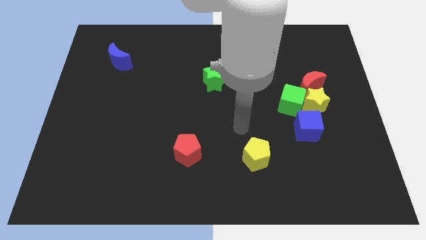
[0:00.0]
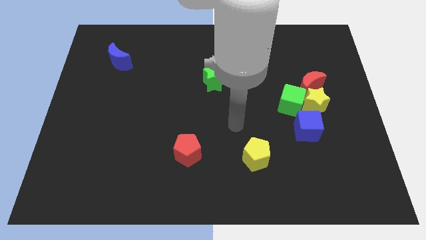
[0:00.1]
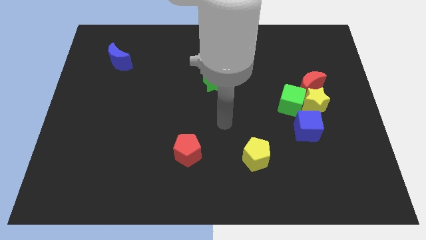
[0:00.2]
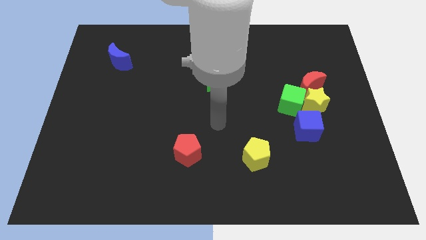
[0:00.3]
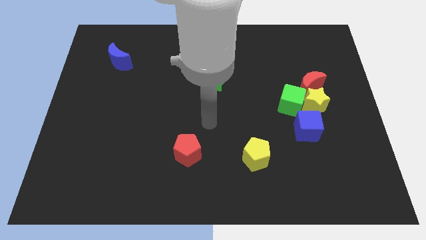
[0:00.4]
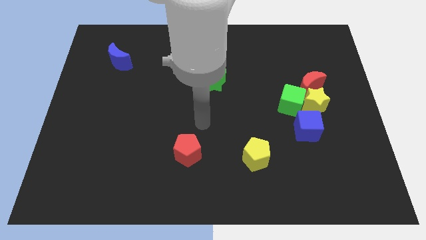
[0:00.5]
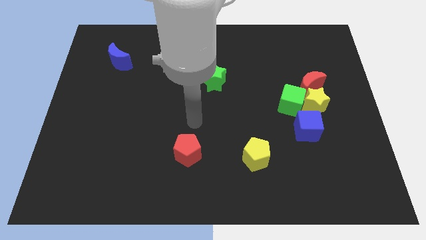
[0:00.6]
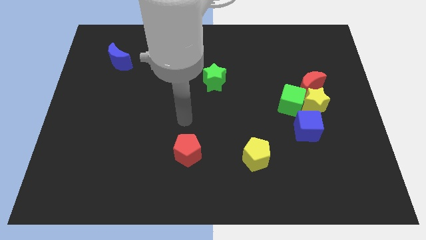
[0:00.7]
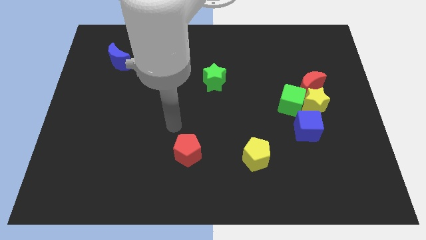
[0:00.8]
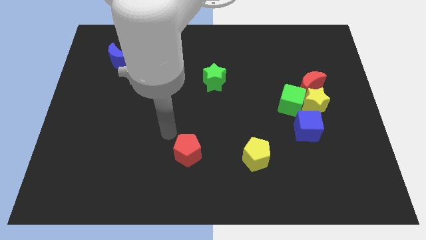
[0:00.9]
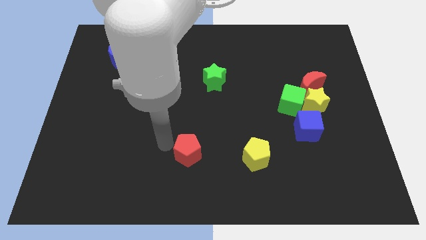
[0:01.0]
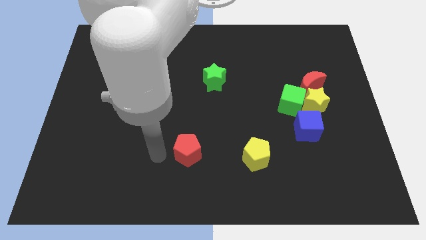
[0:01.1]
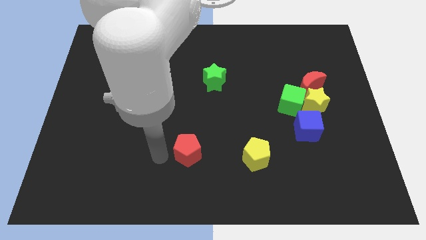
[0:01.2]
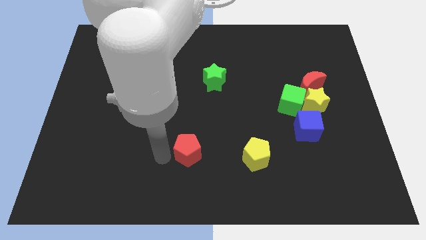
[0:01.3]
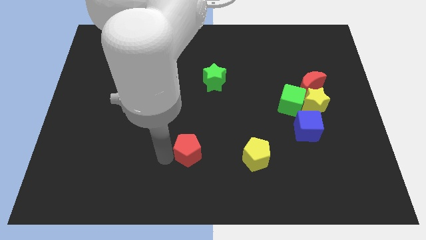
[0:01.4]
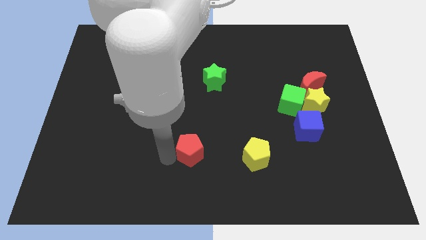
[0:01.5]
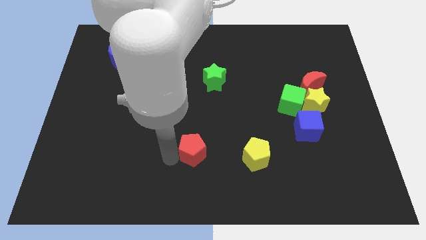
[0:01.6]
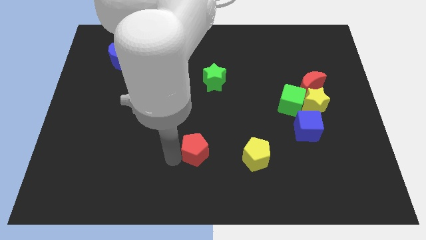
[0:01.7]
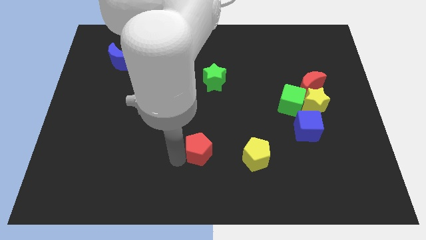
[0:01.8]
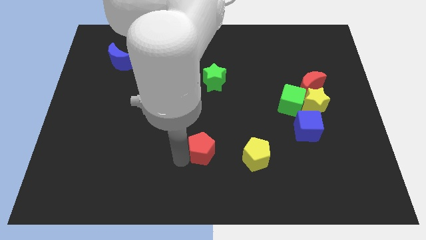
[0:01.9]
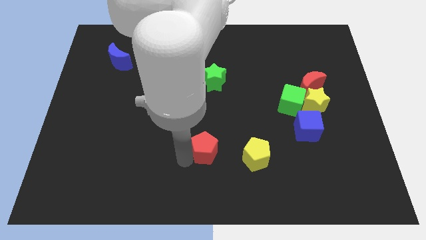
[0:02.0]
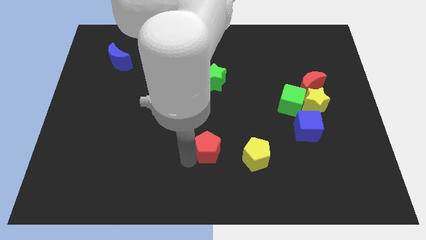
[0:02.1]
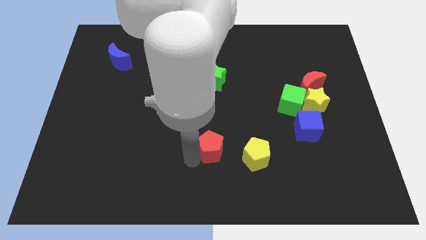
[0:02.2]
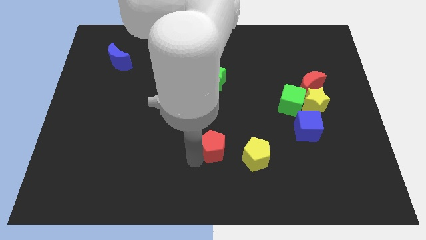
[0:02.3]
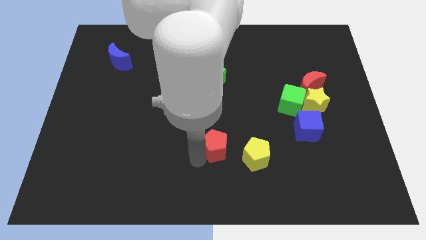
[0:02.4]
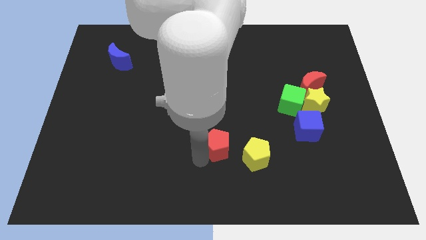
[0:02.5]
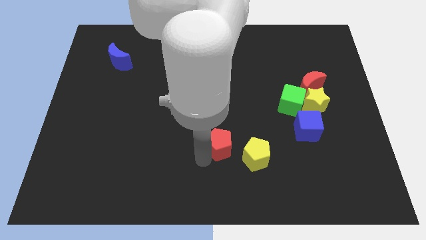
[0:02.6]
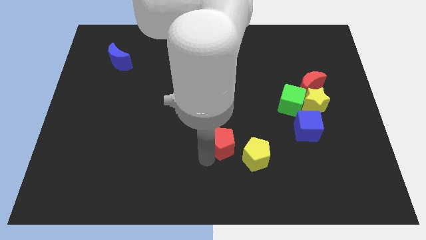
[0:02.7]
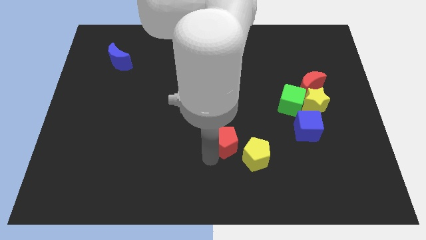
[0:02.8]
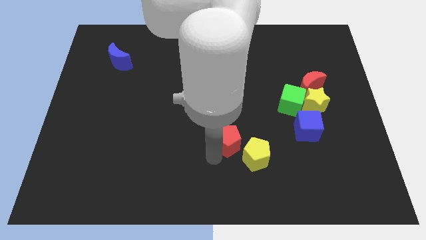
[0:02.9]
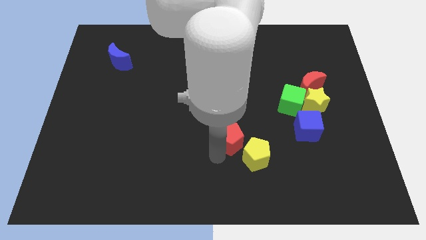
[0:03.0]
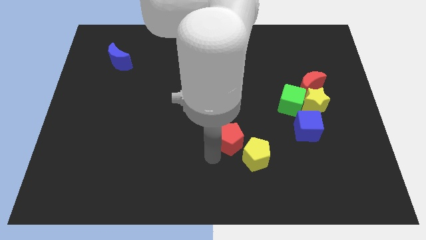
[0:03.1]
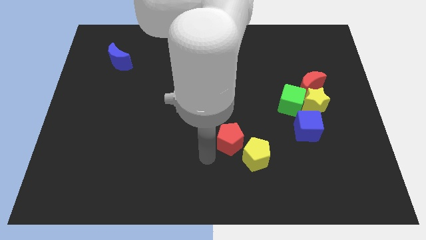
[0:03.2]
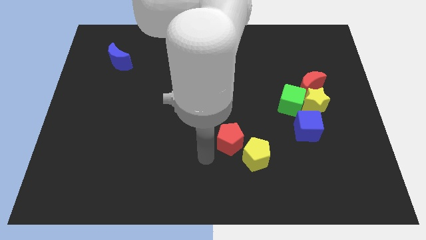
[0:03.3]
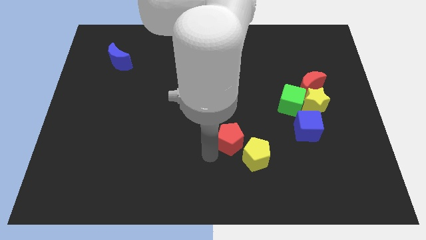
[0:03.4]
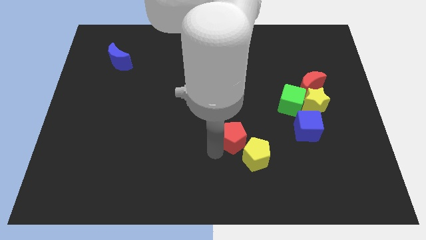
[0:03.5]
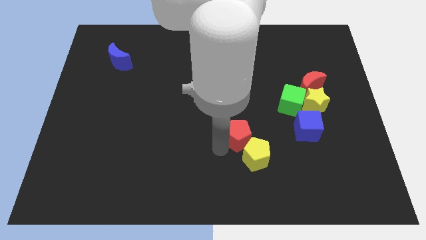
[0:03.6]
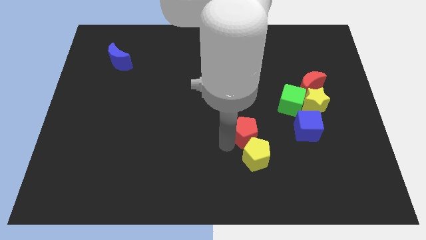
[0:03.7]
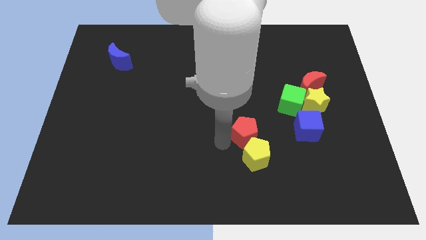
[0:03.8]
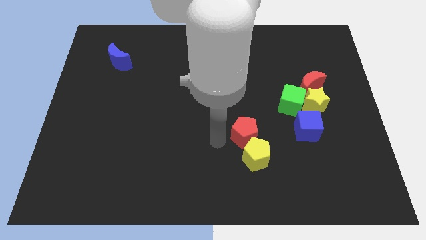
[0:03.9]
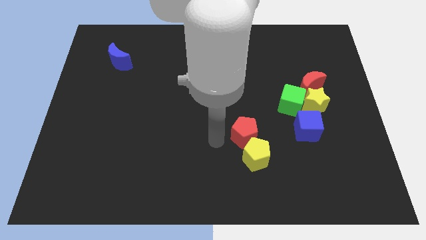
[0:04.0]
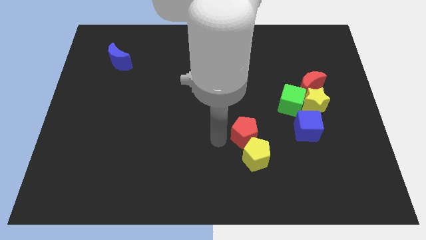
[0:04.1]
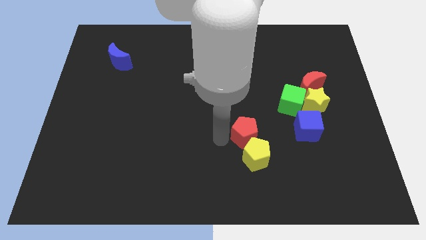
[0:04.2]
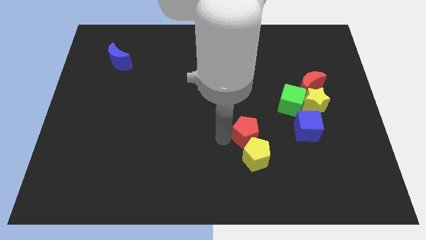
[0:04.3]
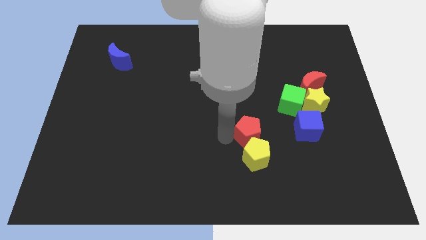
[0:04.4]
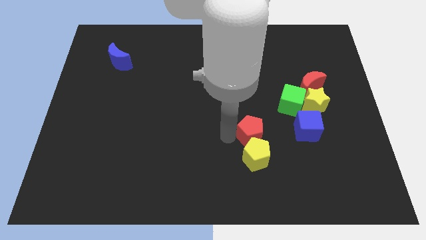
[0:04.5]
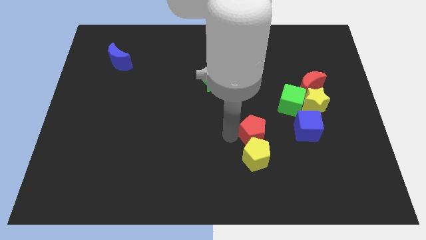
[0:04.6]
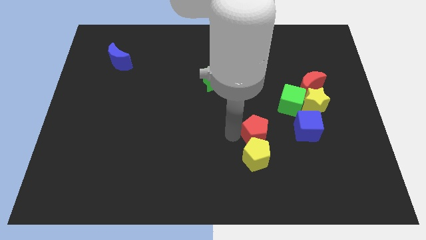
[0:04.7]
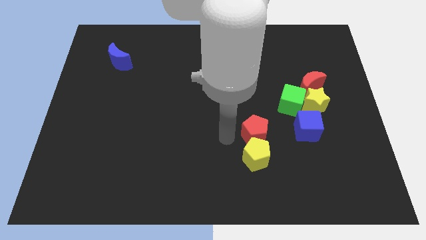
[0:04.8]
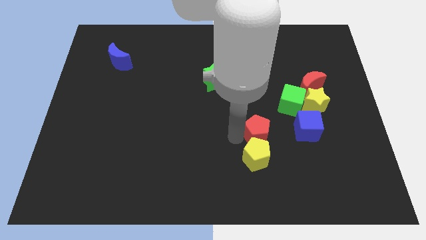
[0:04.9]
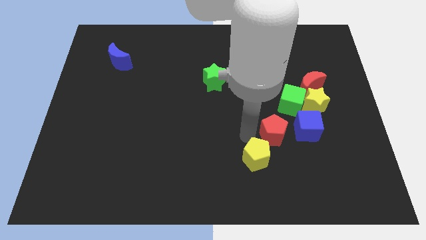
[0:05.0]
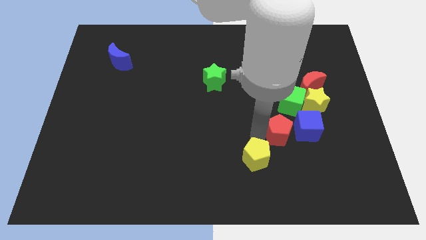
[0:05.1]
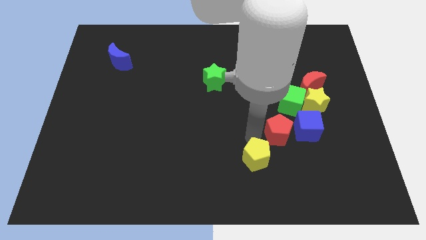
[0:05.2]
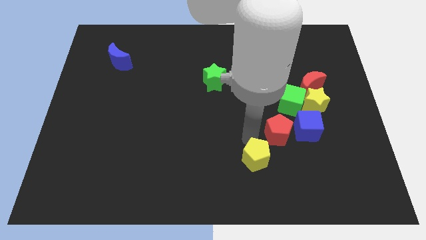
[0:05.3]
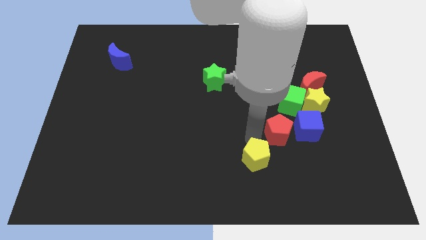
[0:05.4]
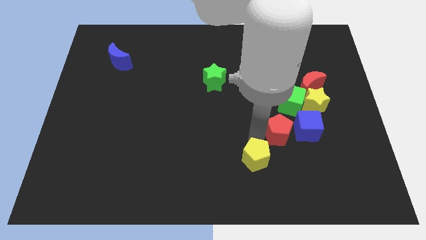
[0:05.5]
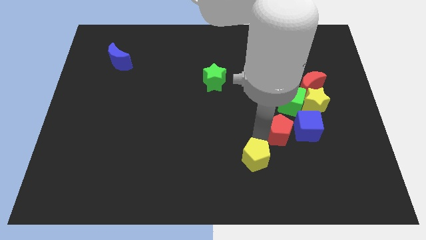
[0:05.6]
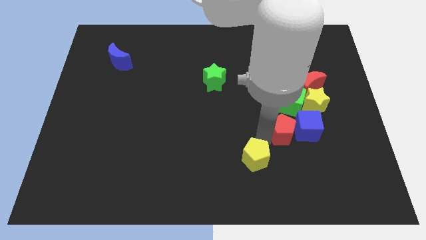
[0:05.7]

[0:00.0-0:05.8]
put the red pentagon next to the blue cube

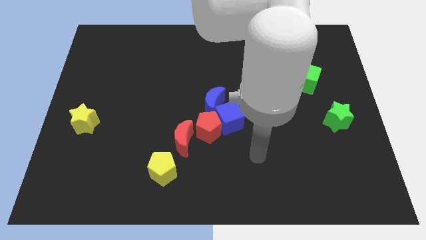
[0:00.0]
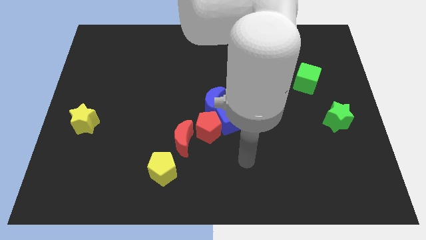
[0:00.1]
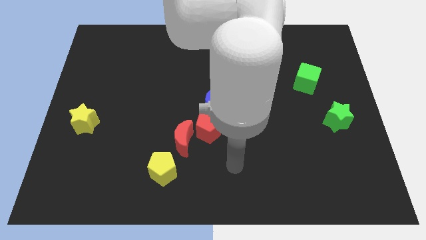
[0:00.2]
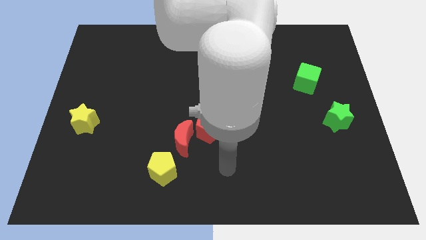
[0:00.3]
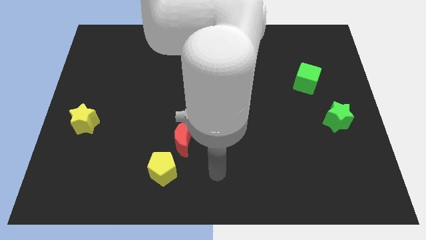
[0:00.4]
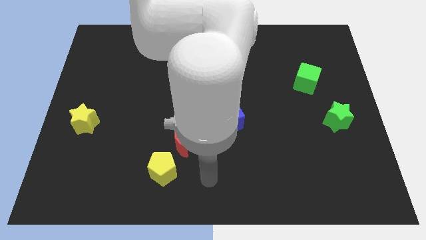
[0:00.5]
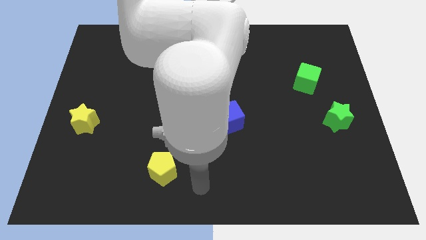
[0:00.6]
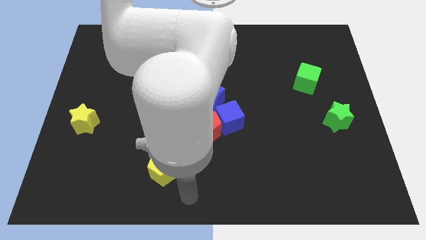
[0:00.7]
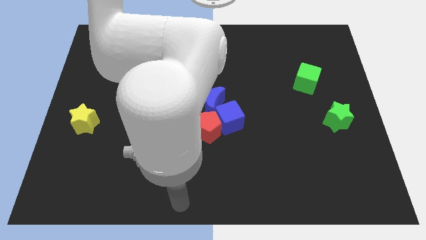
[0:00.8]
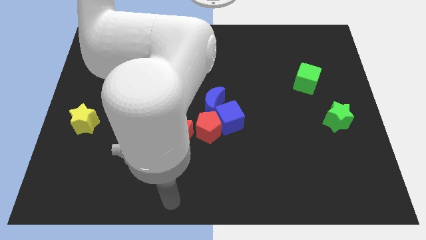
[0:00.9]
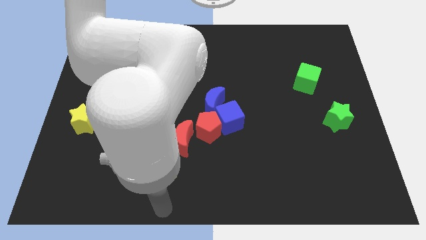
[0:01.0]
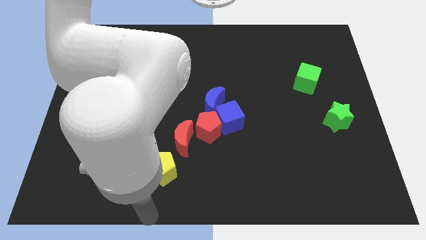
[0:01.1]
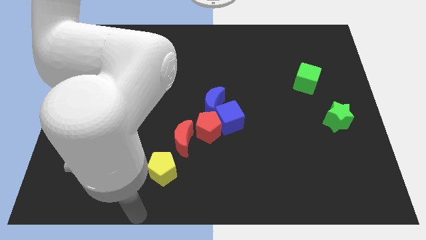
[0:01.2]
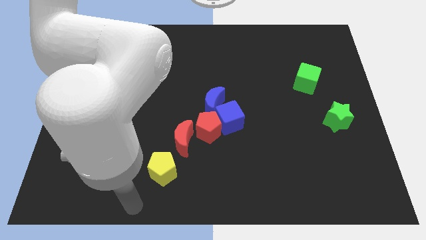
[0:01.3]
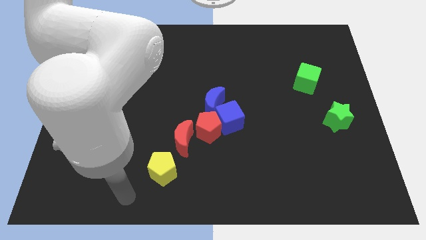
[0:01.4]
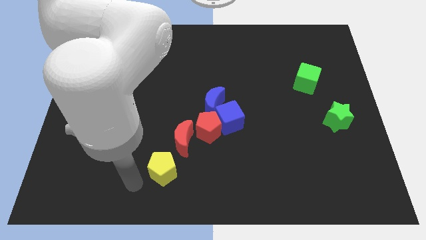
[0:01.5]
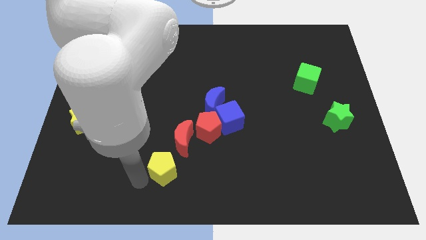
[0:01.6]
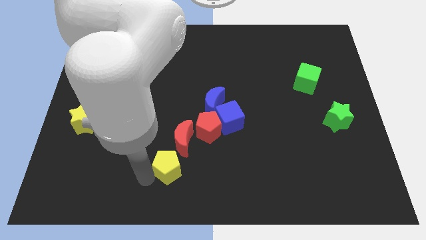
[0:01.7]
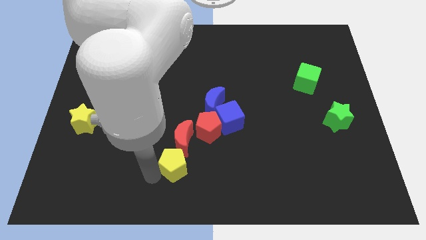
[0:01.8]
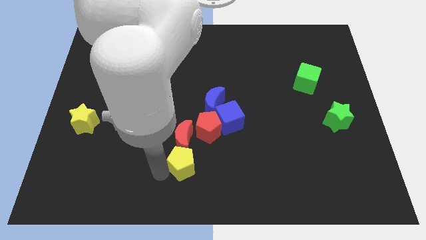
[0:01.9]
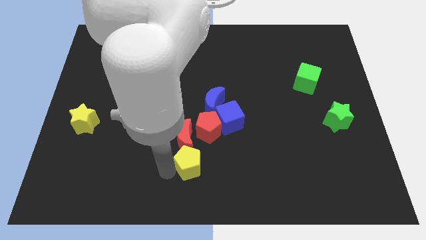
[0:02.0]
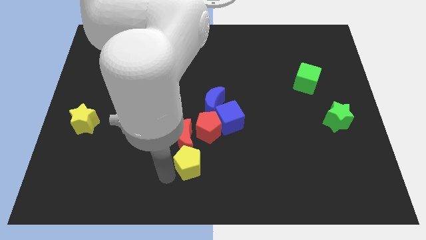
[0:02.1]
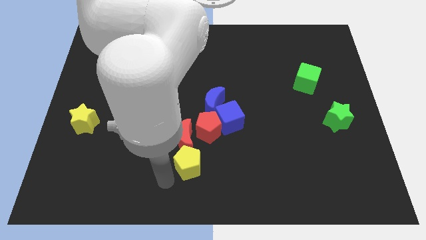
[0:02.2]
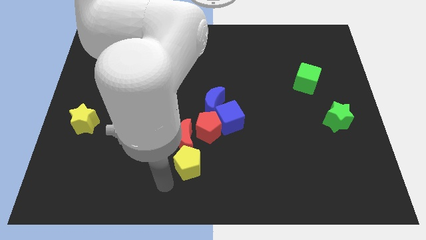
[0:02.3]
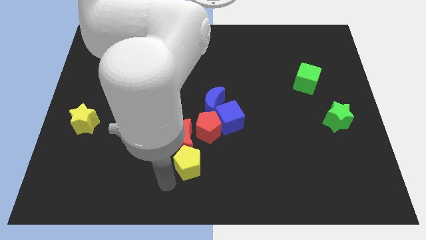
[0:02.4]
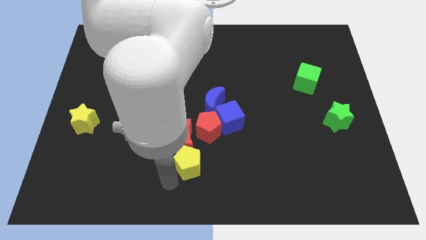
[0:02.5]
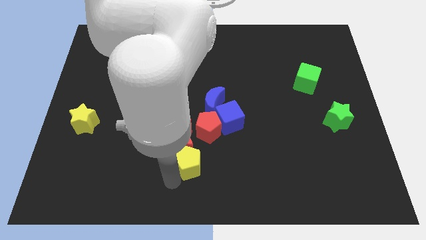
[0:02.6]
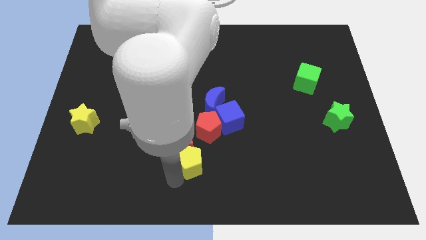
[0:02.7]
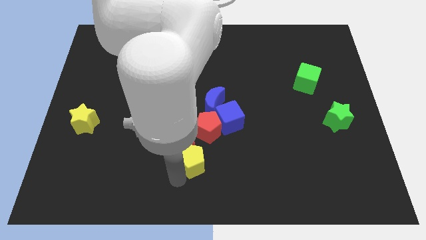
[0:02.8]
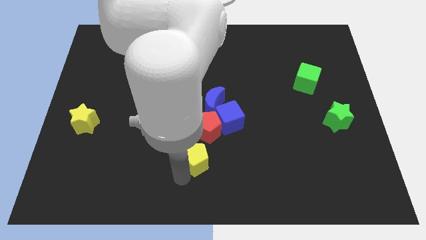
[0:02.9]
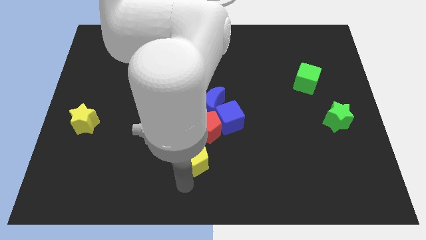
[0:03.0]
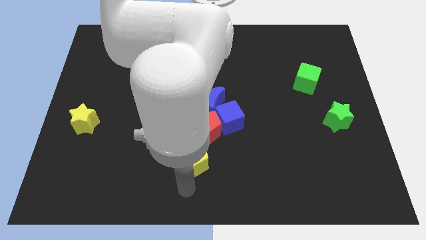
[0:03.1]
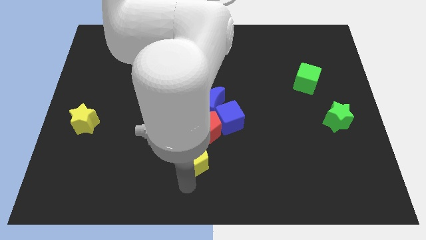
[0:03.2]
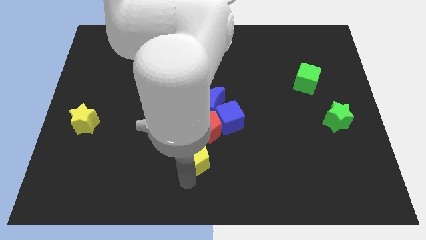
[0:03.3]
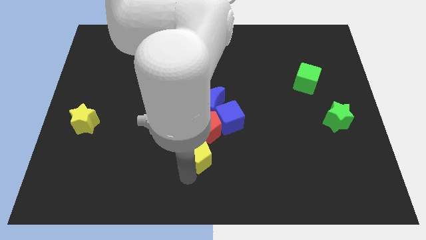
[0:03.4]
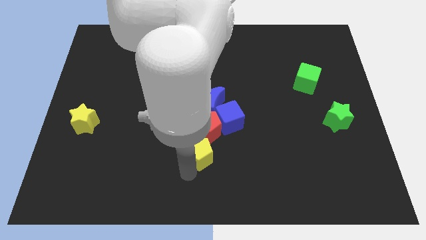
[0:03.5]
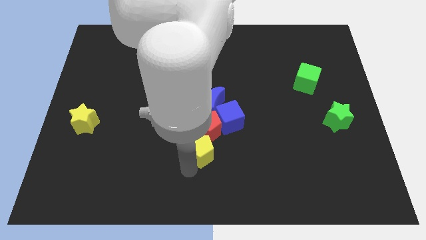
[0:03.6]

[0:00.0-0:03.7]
push the yellow pentagon to the red pentagon
